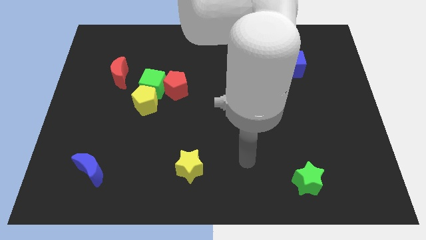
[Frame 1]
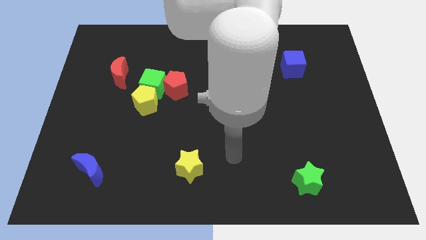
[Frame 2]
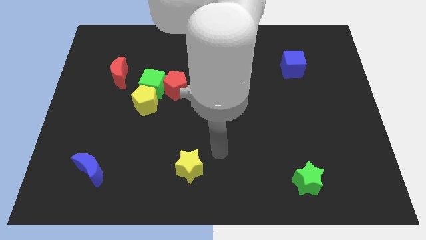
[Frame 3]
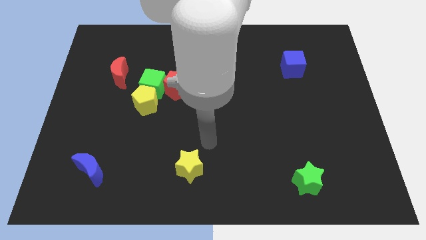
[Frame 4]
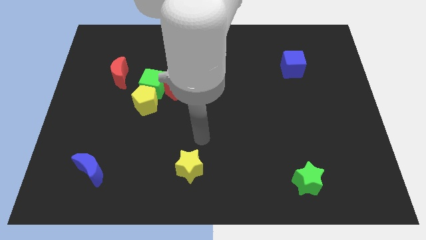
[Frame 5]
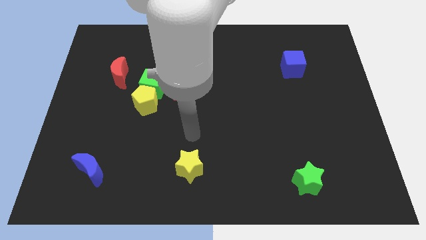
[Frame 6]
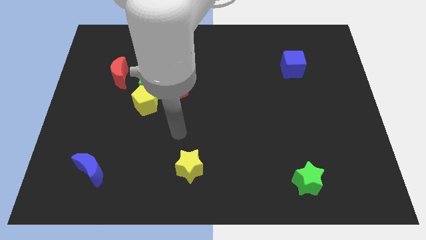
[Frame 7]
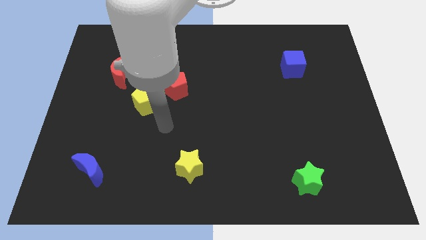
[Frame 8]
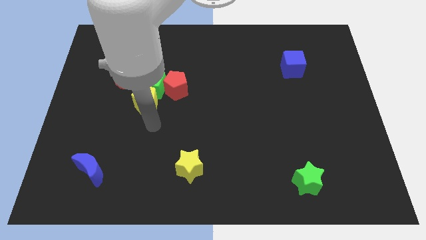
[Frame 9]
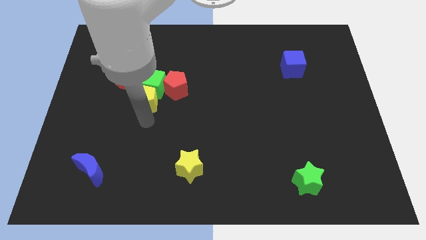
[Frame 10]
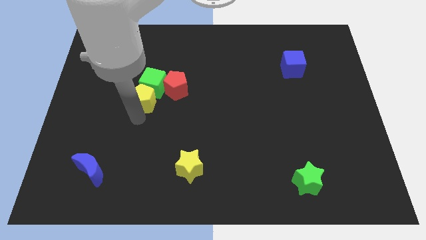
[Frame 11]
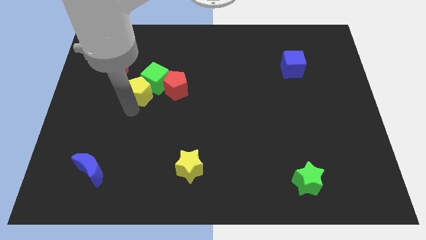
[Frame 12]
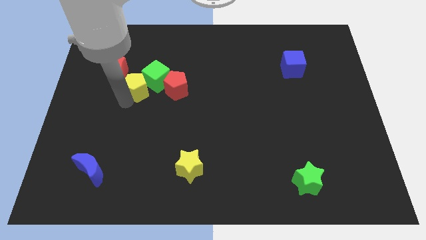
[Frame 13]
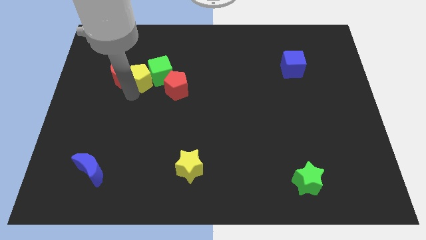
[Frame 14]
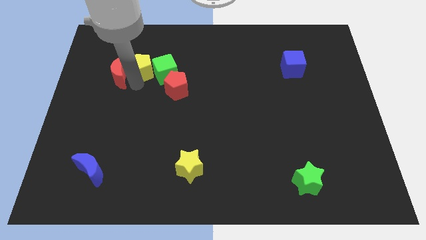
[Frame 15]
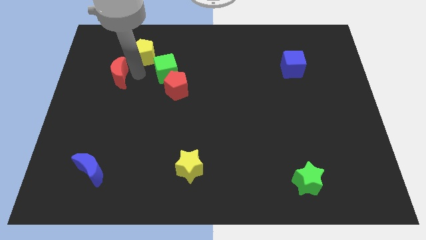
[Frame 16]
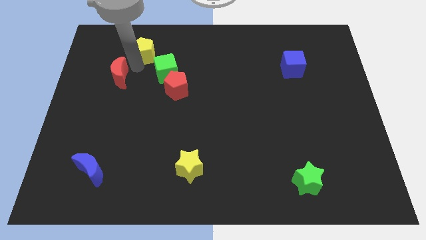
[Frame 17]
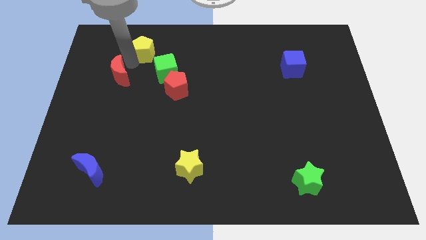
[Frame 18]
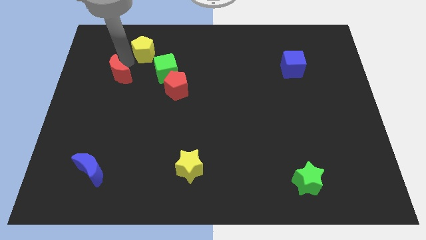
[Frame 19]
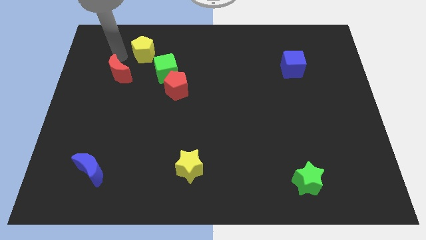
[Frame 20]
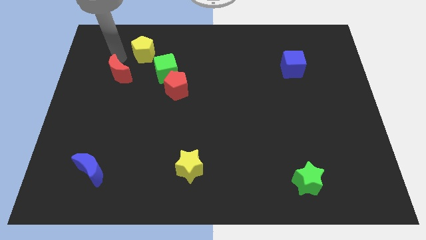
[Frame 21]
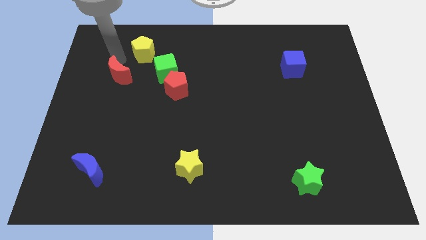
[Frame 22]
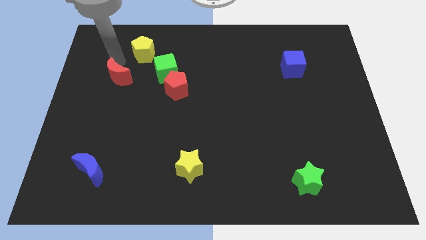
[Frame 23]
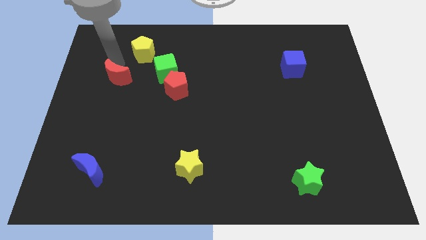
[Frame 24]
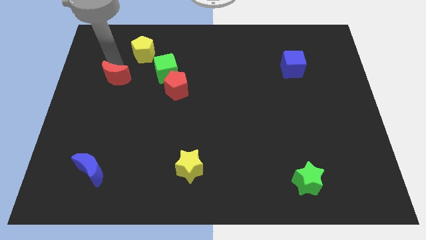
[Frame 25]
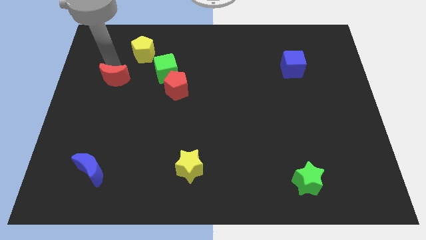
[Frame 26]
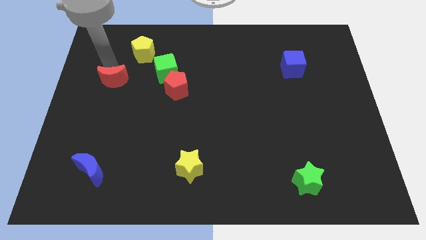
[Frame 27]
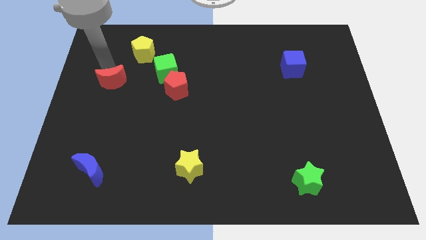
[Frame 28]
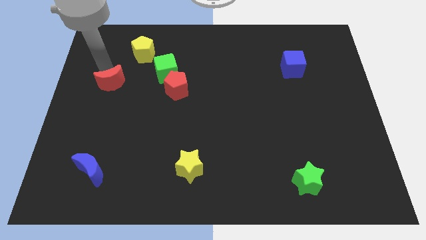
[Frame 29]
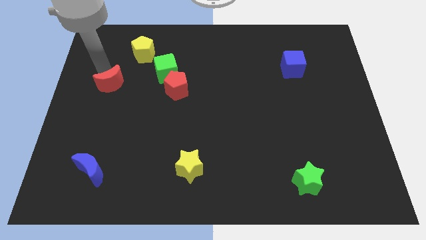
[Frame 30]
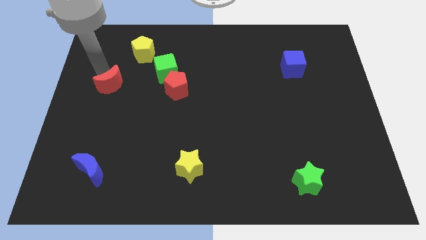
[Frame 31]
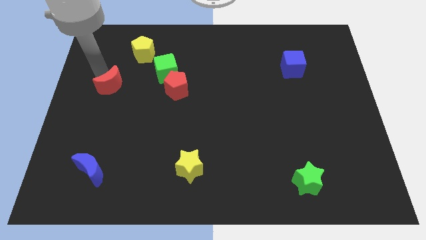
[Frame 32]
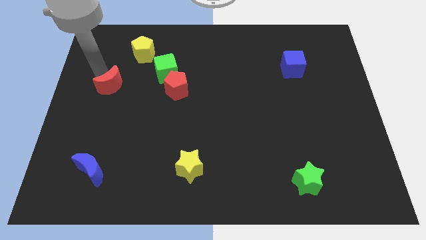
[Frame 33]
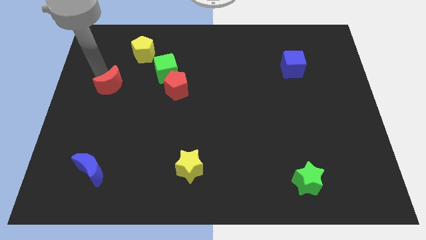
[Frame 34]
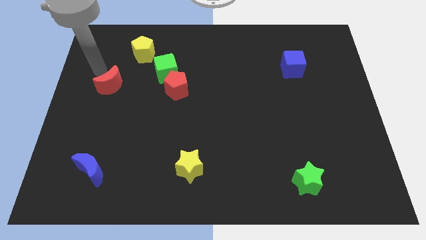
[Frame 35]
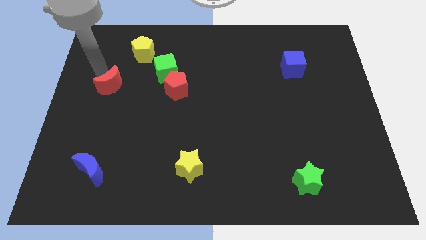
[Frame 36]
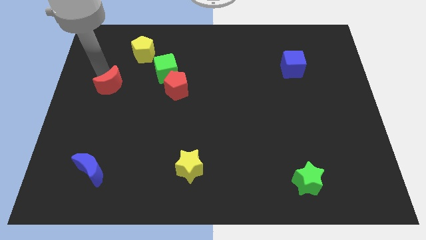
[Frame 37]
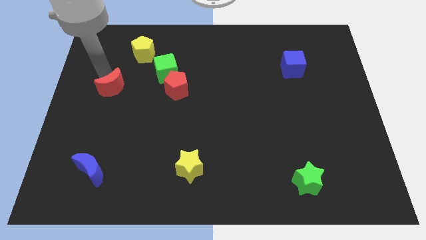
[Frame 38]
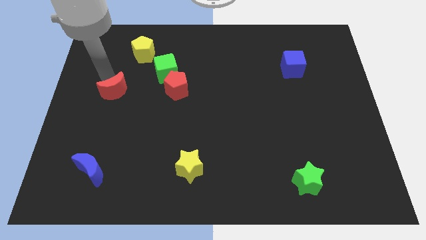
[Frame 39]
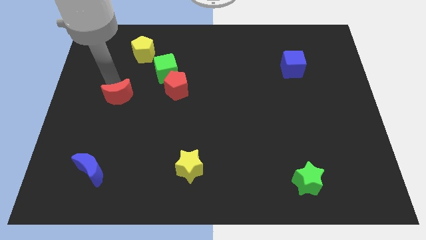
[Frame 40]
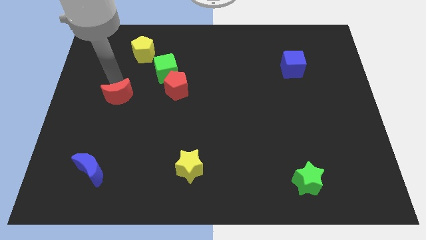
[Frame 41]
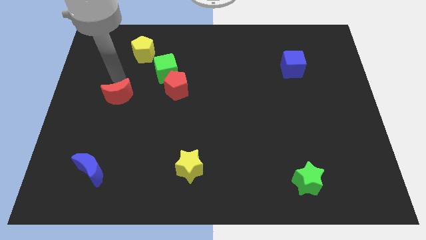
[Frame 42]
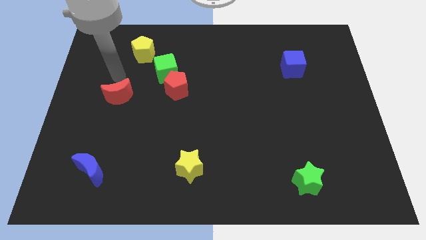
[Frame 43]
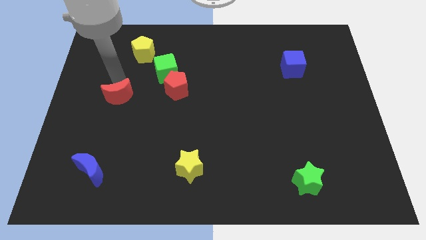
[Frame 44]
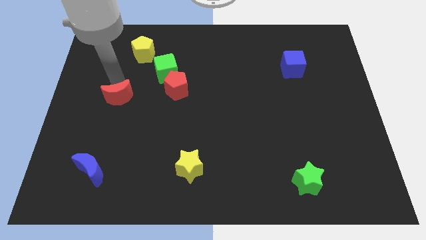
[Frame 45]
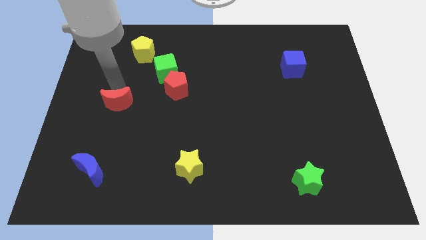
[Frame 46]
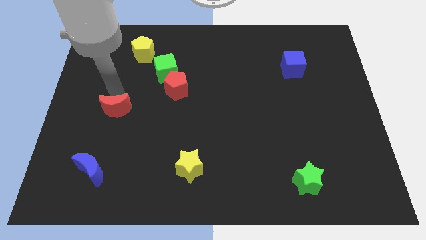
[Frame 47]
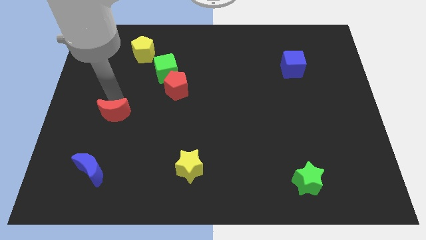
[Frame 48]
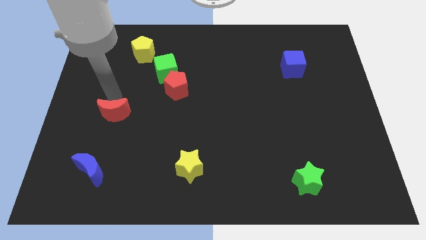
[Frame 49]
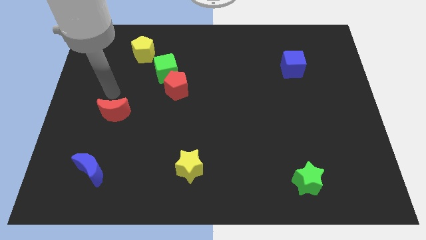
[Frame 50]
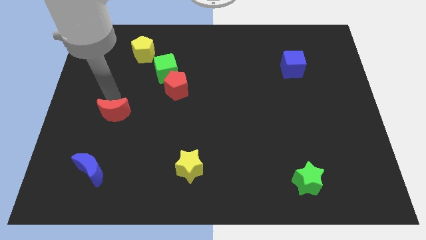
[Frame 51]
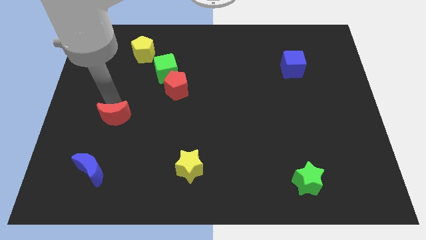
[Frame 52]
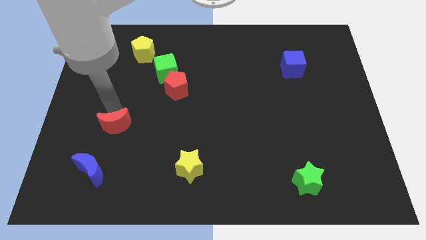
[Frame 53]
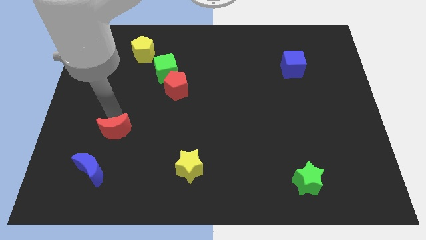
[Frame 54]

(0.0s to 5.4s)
move the red moon to the top right of the blue moon
